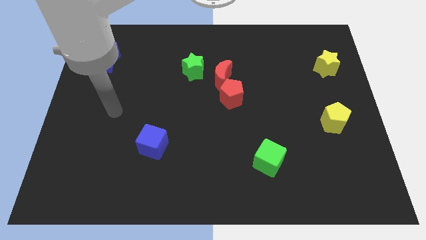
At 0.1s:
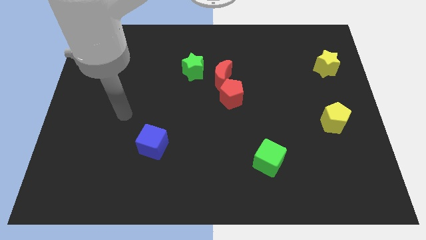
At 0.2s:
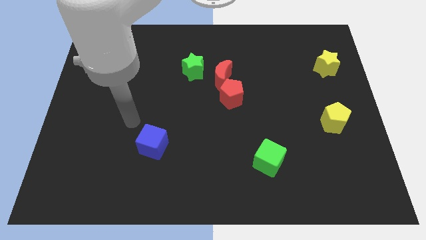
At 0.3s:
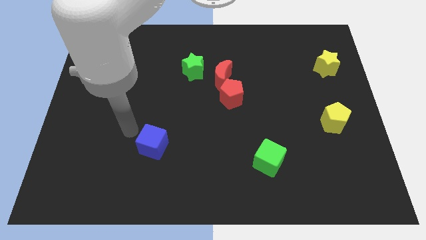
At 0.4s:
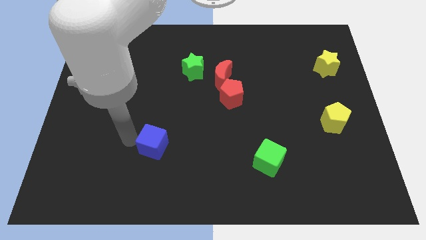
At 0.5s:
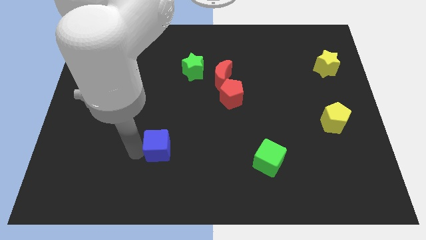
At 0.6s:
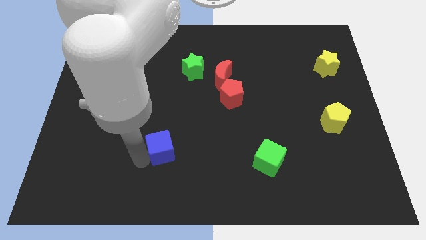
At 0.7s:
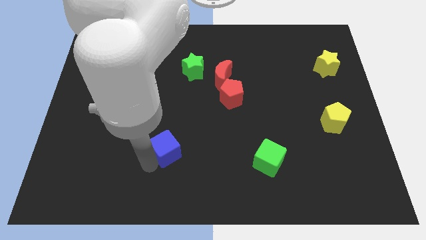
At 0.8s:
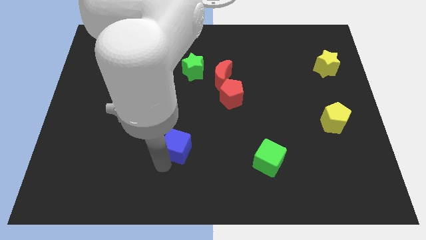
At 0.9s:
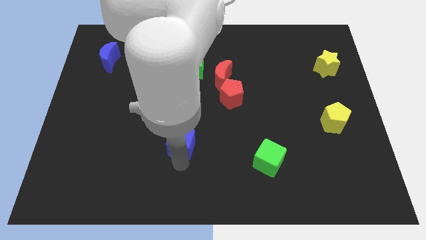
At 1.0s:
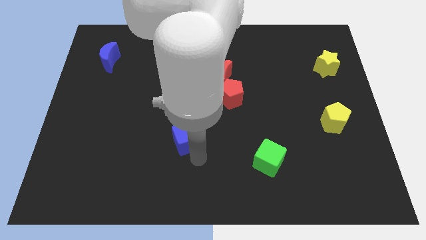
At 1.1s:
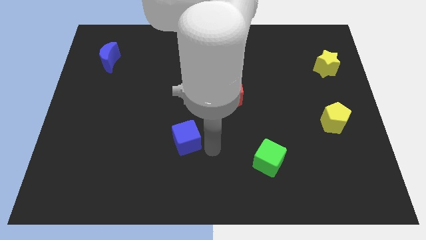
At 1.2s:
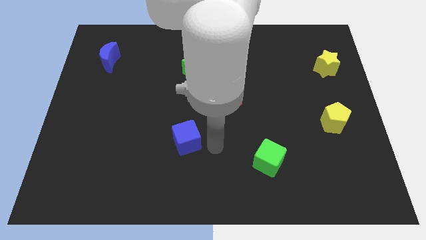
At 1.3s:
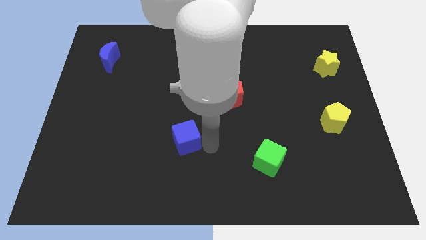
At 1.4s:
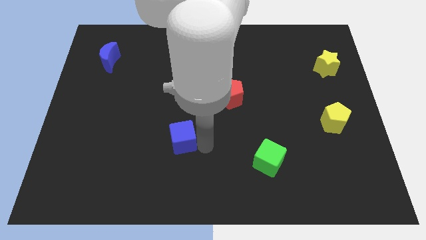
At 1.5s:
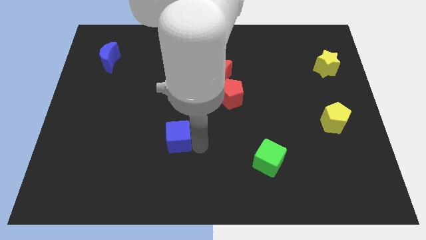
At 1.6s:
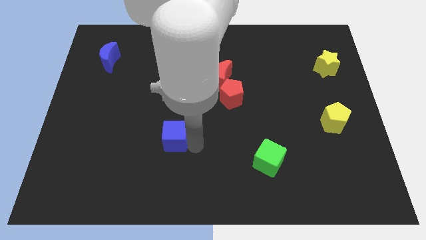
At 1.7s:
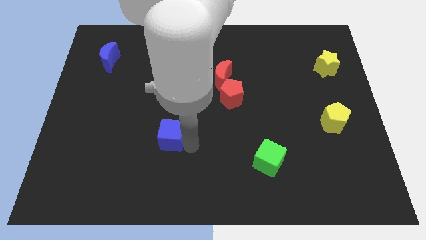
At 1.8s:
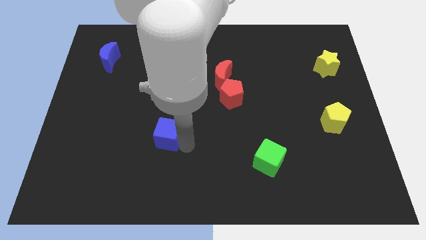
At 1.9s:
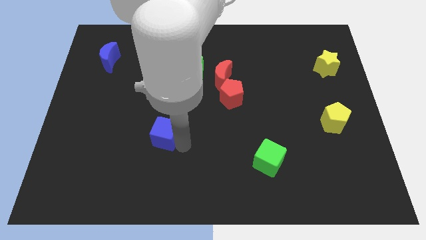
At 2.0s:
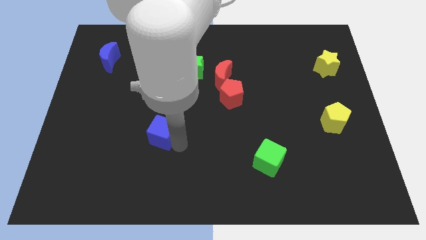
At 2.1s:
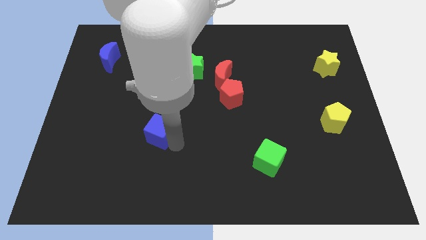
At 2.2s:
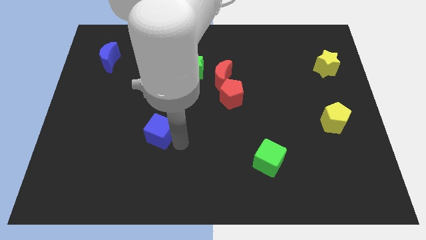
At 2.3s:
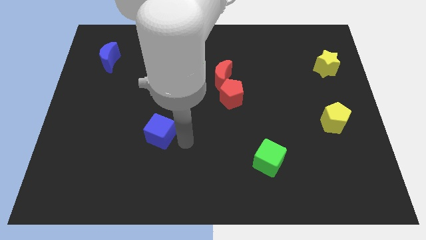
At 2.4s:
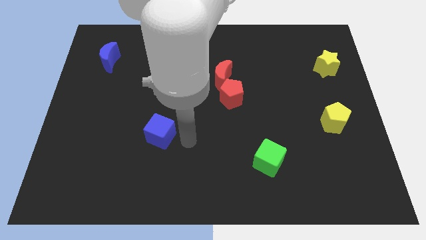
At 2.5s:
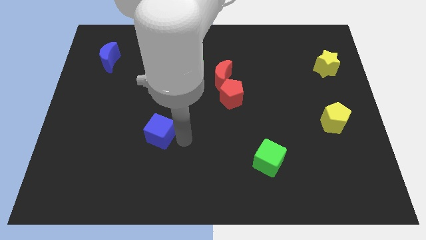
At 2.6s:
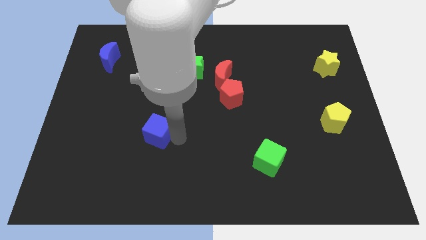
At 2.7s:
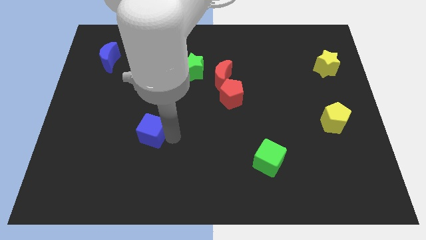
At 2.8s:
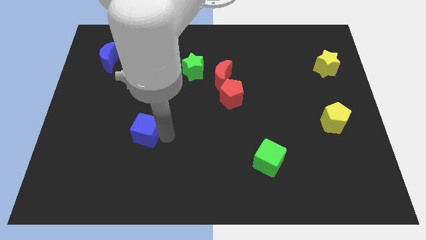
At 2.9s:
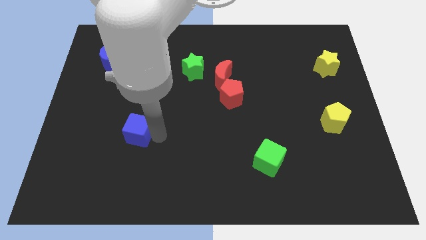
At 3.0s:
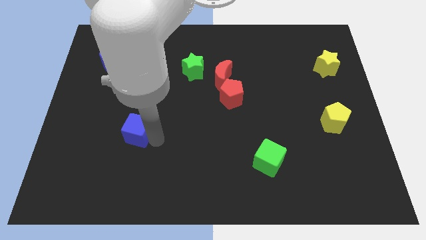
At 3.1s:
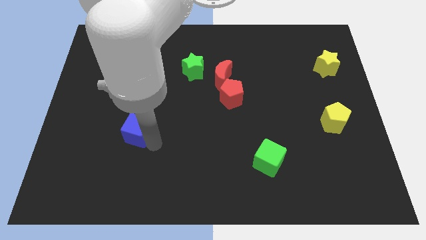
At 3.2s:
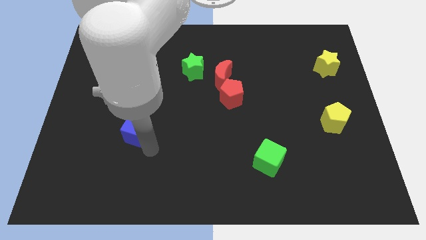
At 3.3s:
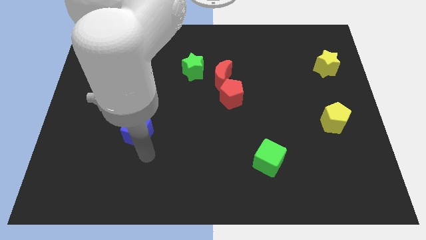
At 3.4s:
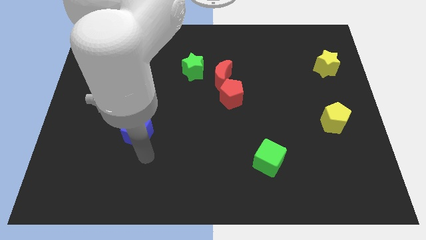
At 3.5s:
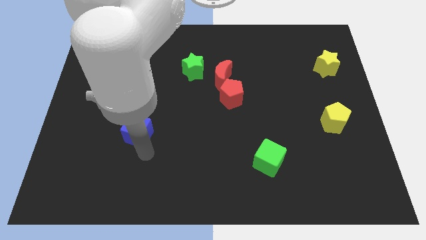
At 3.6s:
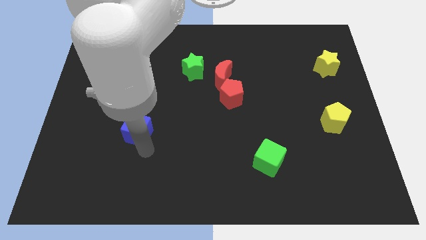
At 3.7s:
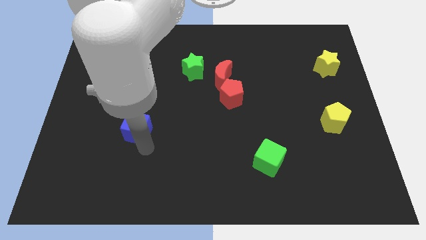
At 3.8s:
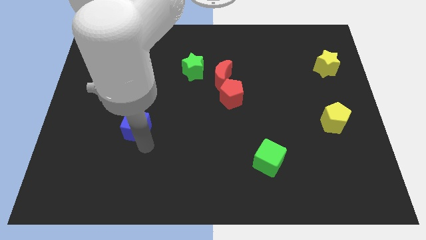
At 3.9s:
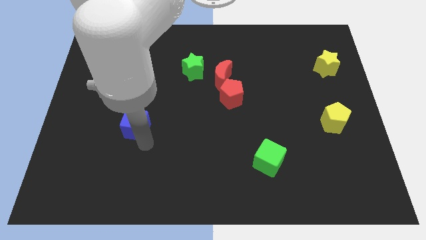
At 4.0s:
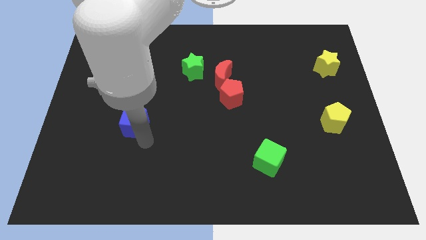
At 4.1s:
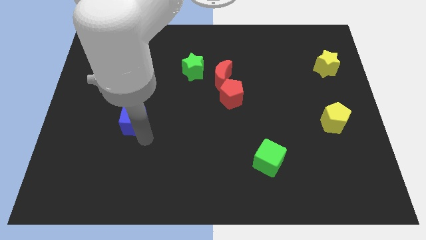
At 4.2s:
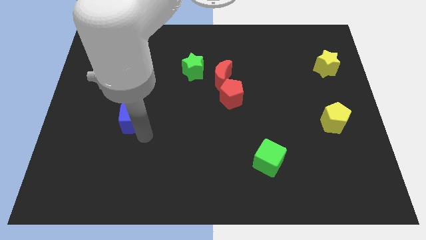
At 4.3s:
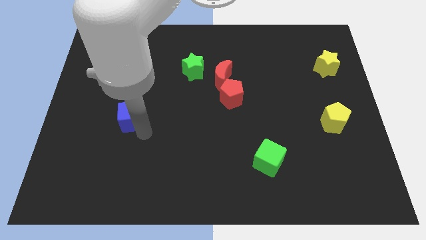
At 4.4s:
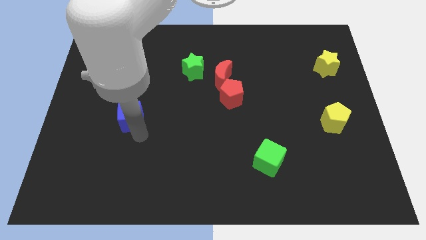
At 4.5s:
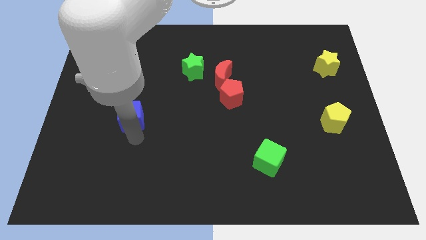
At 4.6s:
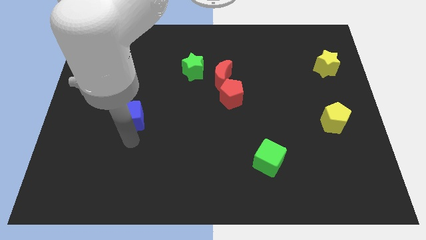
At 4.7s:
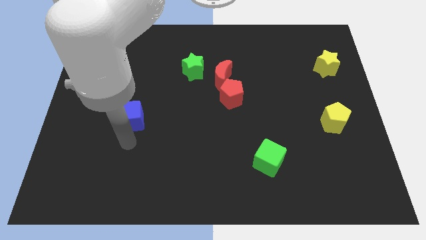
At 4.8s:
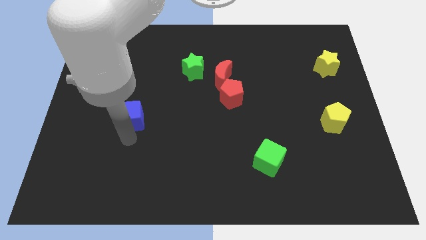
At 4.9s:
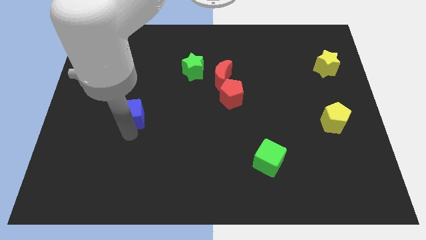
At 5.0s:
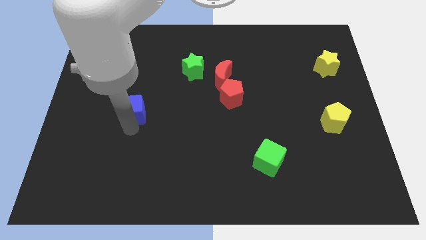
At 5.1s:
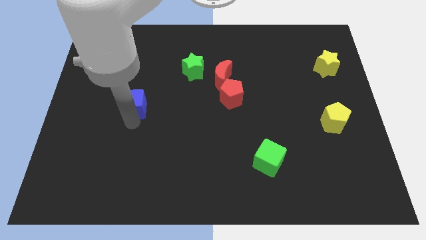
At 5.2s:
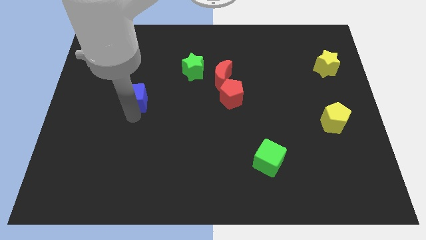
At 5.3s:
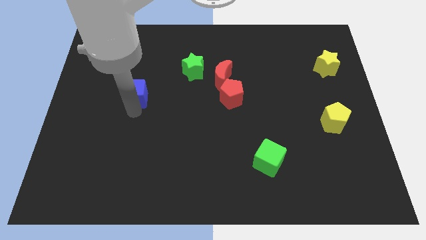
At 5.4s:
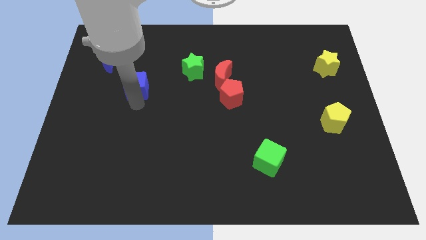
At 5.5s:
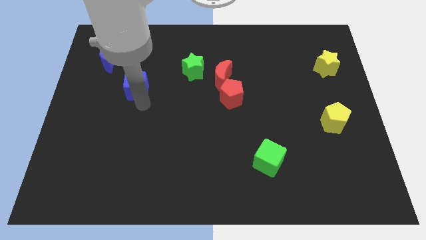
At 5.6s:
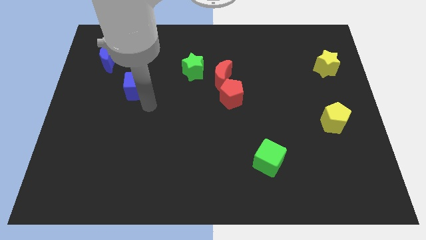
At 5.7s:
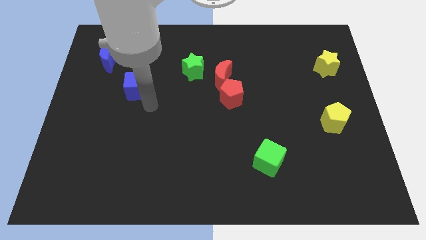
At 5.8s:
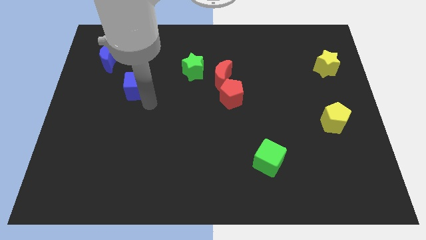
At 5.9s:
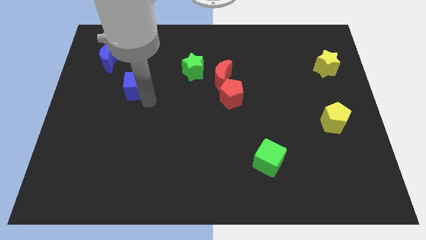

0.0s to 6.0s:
move the blue cube diagonally down and to the right of the blue moon

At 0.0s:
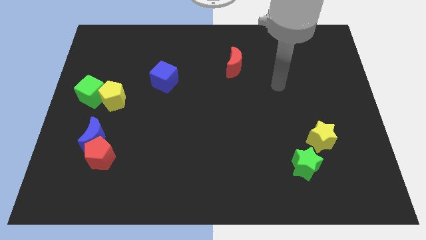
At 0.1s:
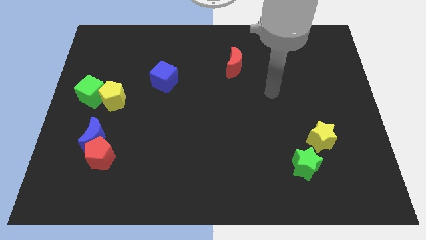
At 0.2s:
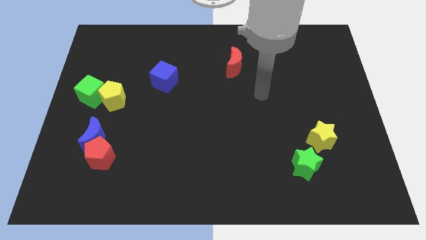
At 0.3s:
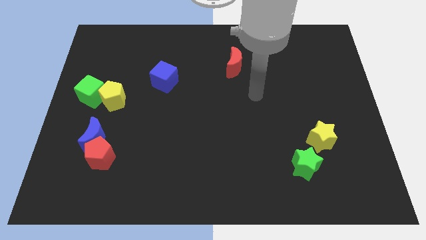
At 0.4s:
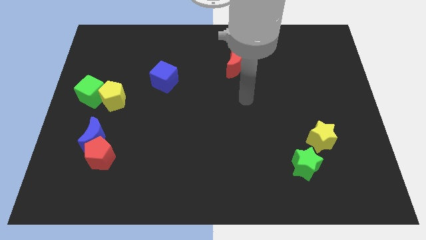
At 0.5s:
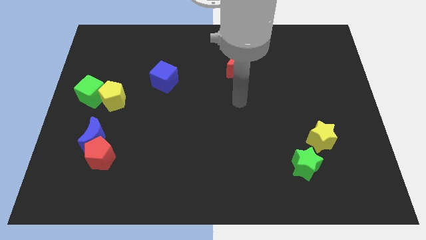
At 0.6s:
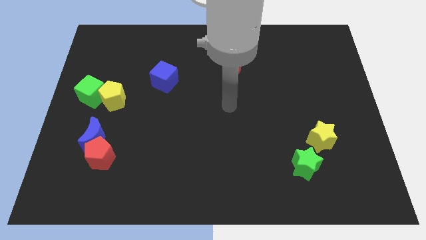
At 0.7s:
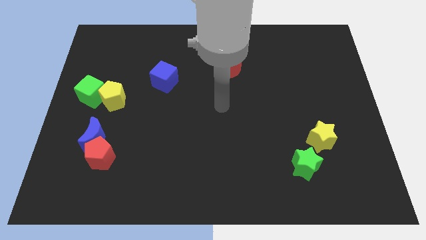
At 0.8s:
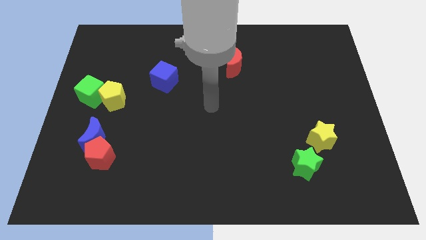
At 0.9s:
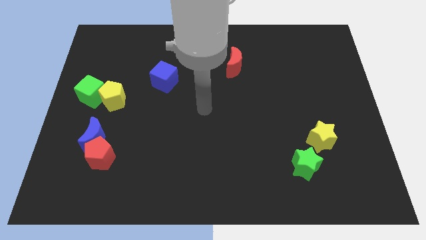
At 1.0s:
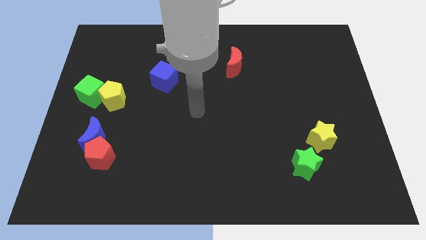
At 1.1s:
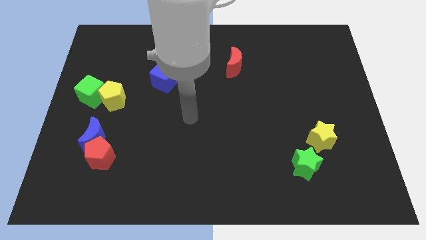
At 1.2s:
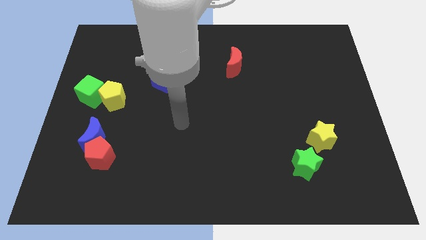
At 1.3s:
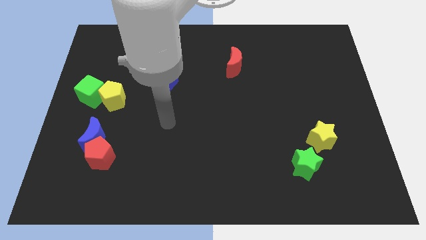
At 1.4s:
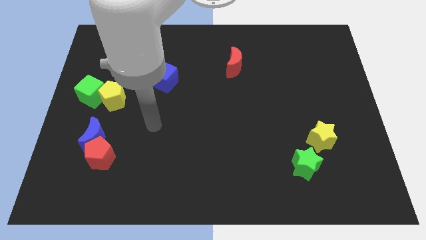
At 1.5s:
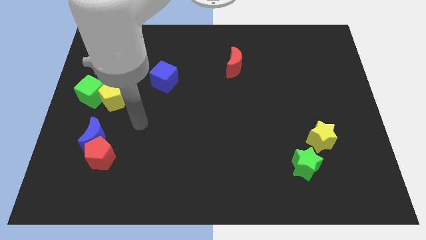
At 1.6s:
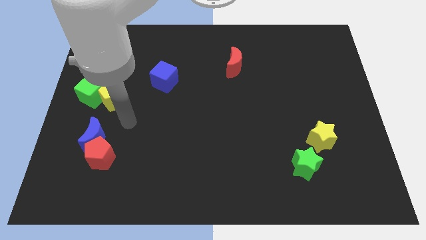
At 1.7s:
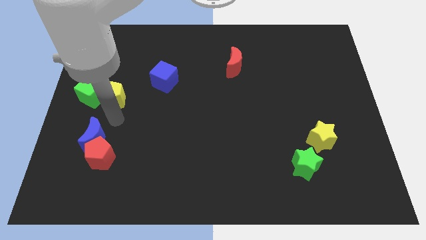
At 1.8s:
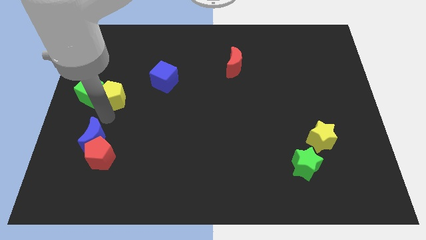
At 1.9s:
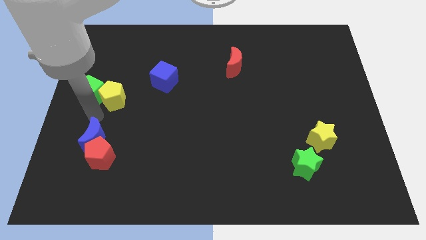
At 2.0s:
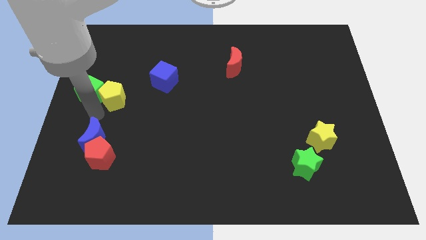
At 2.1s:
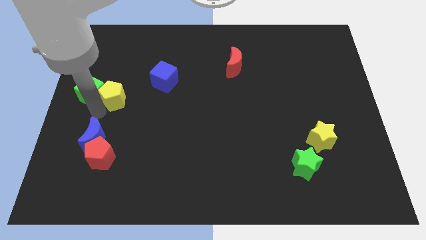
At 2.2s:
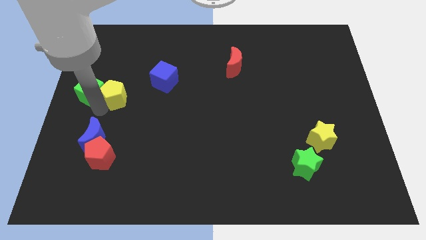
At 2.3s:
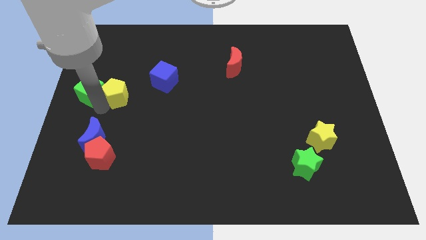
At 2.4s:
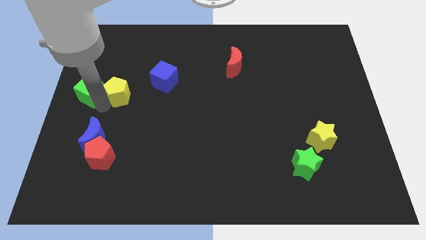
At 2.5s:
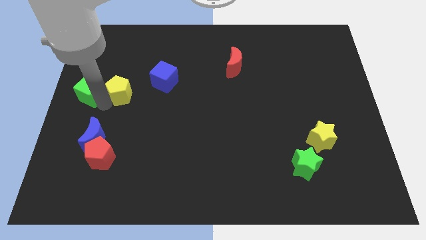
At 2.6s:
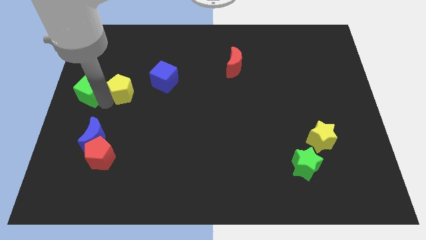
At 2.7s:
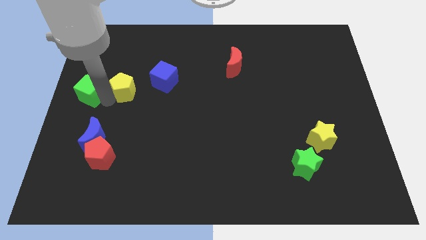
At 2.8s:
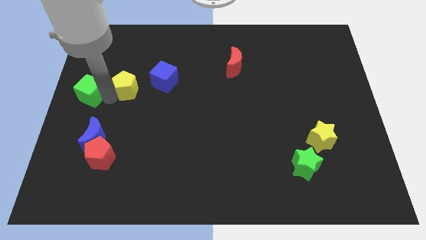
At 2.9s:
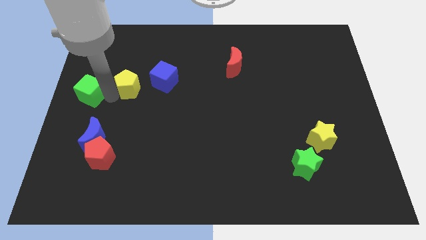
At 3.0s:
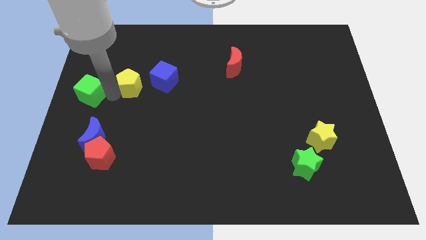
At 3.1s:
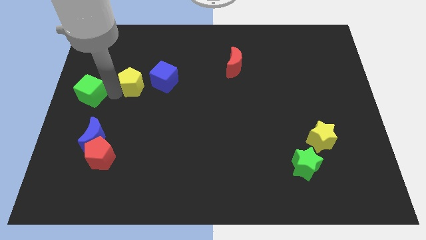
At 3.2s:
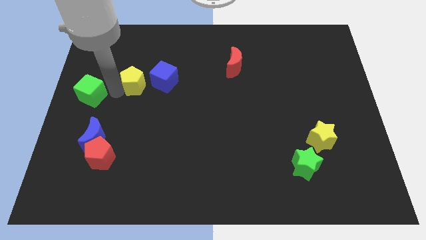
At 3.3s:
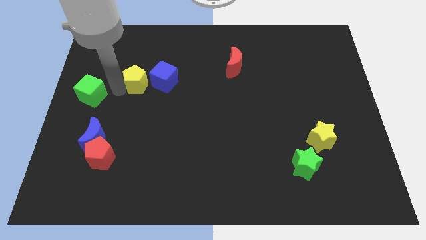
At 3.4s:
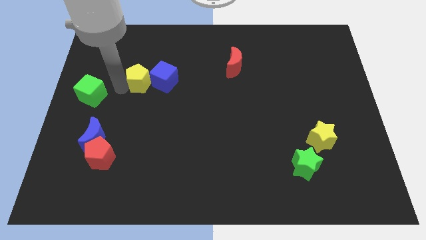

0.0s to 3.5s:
put the yellow pentagon to the top left side of the blue cube
